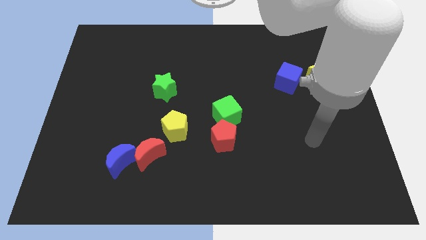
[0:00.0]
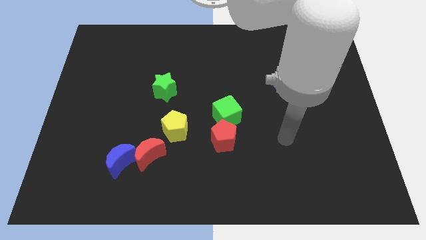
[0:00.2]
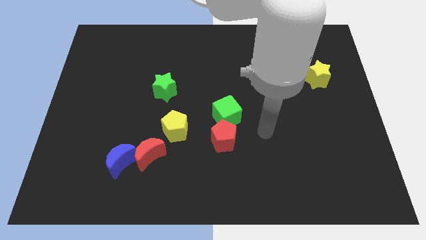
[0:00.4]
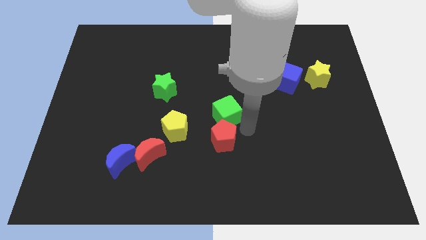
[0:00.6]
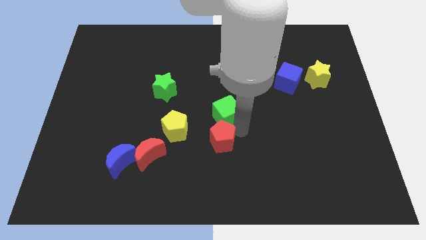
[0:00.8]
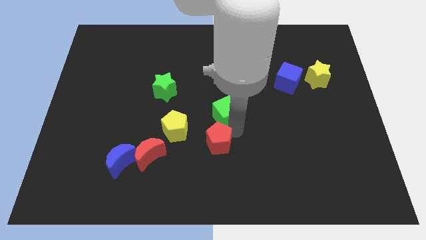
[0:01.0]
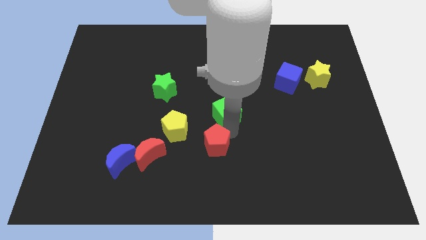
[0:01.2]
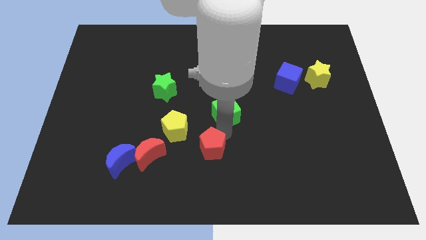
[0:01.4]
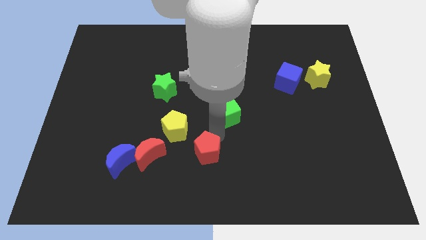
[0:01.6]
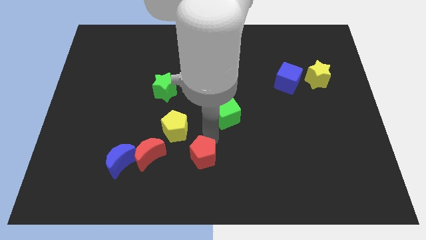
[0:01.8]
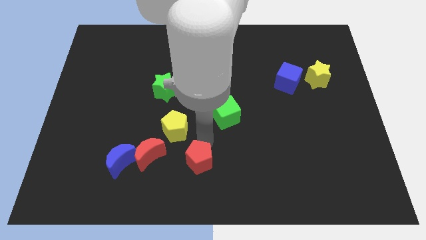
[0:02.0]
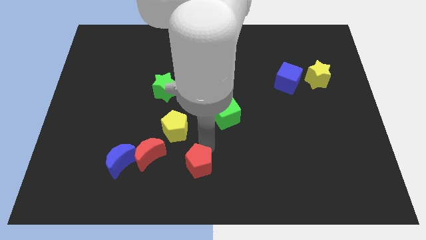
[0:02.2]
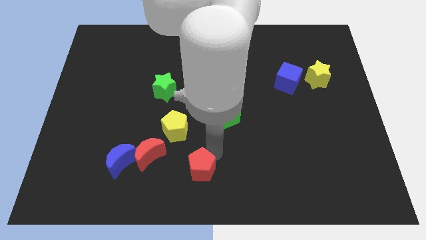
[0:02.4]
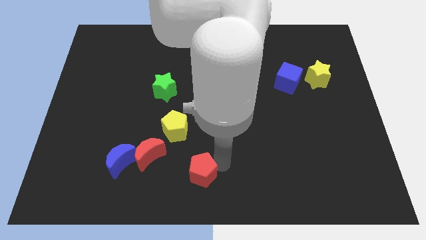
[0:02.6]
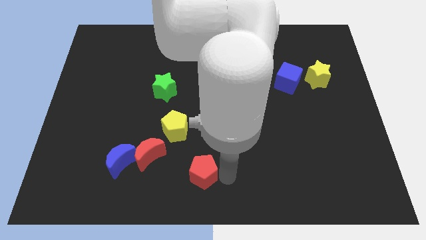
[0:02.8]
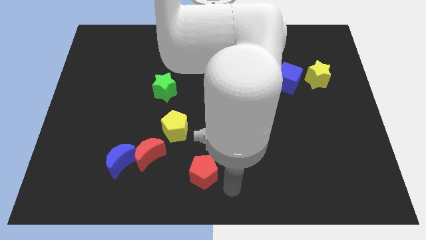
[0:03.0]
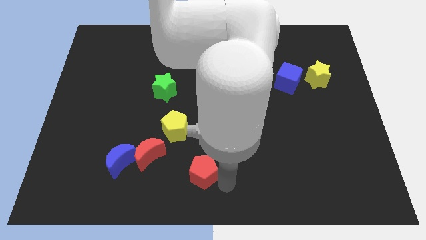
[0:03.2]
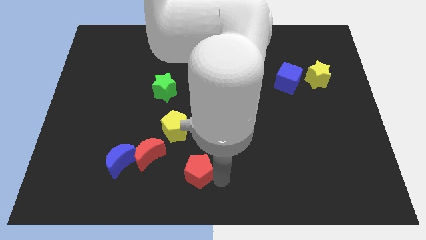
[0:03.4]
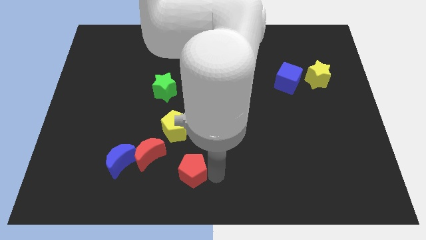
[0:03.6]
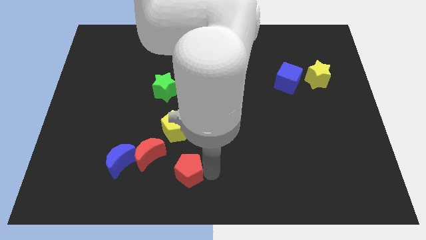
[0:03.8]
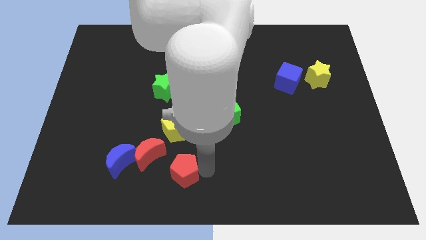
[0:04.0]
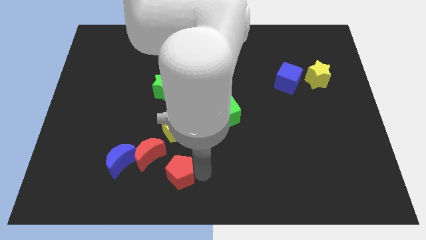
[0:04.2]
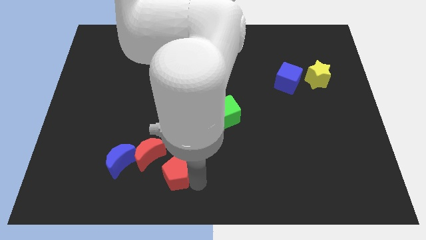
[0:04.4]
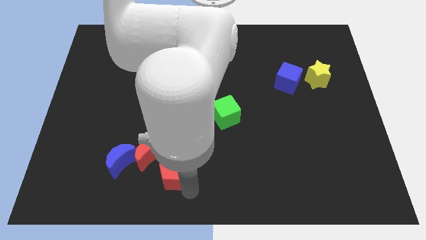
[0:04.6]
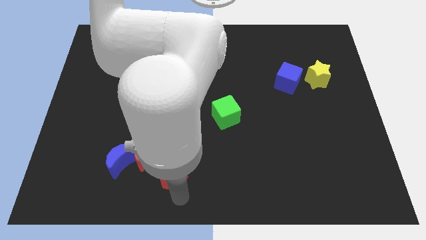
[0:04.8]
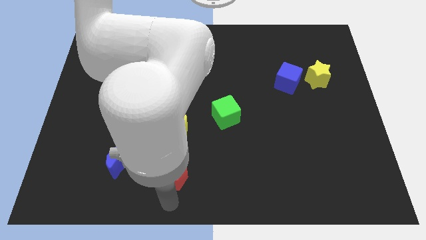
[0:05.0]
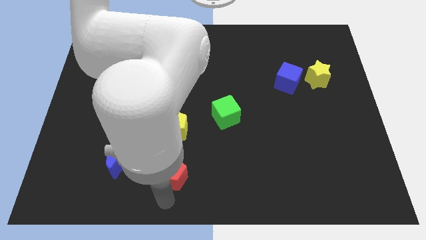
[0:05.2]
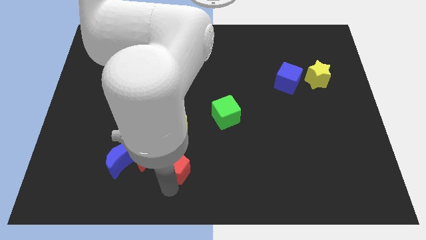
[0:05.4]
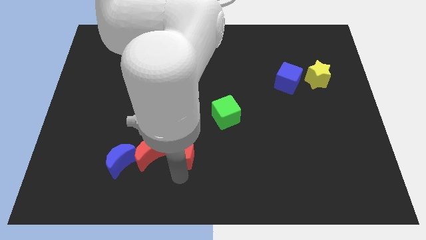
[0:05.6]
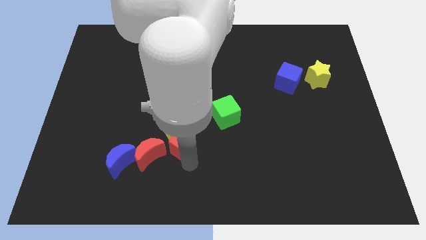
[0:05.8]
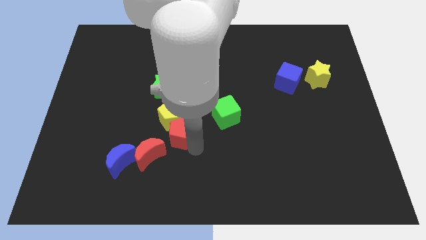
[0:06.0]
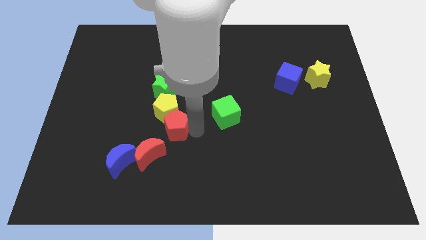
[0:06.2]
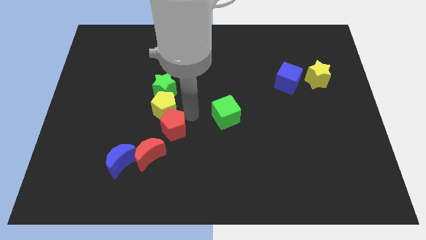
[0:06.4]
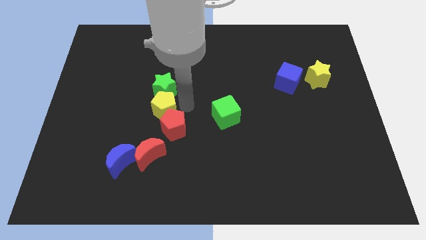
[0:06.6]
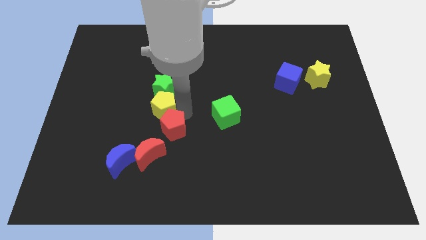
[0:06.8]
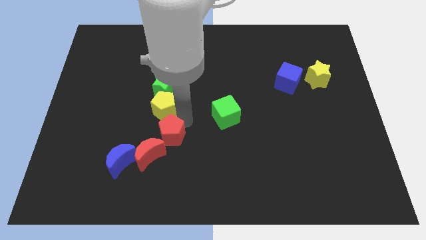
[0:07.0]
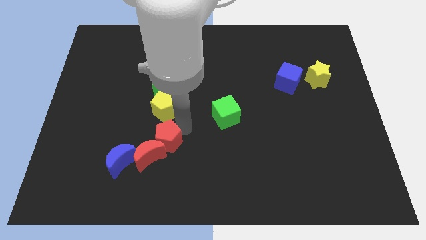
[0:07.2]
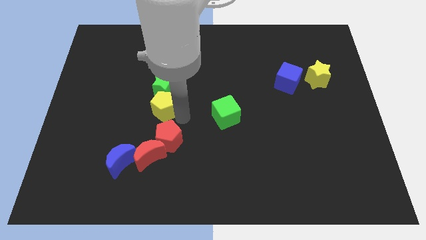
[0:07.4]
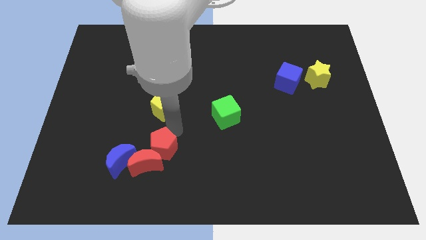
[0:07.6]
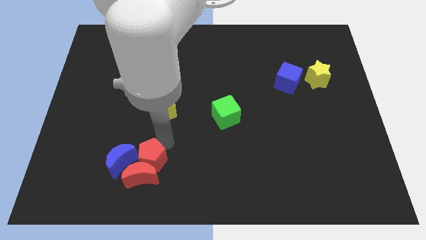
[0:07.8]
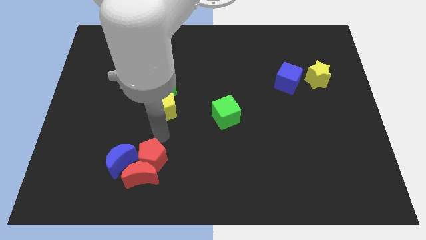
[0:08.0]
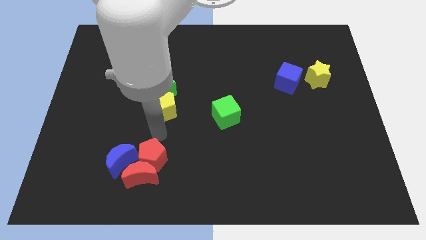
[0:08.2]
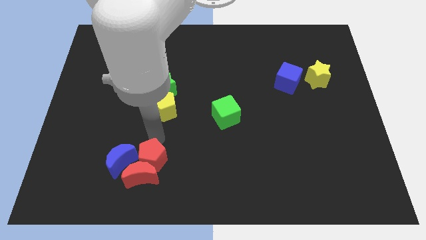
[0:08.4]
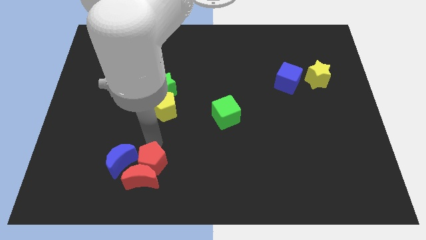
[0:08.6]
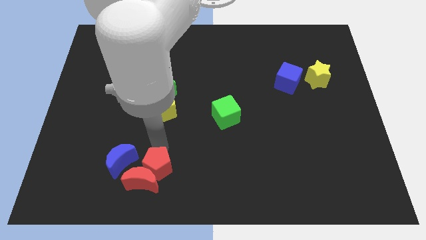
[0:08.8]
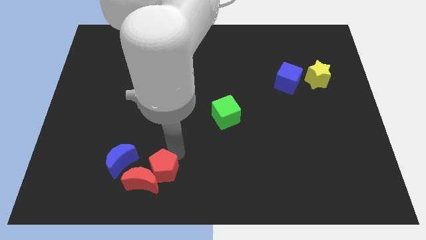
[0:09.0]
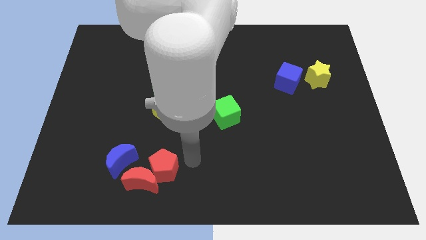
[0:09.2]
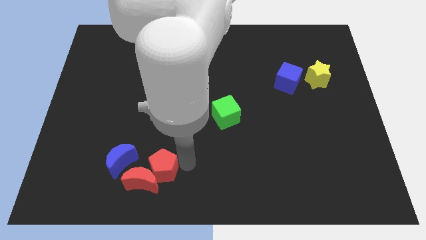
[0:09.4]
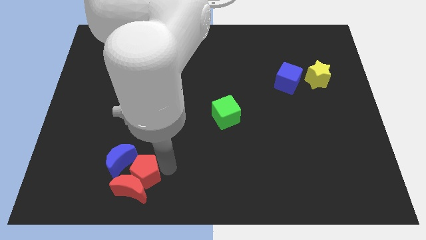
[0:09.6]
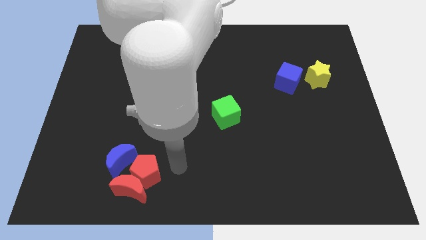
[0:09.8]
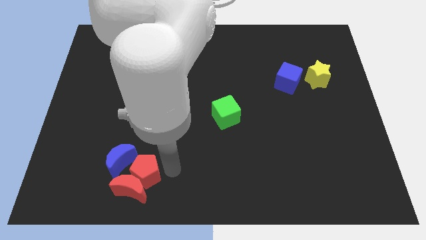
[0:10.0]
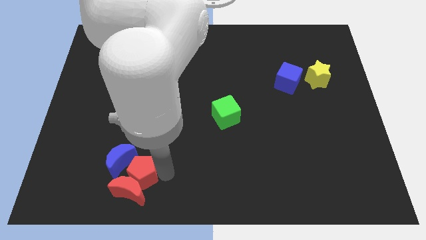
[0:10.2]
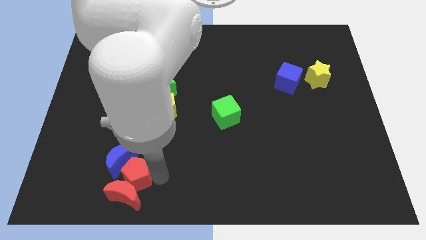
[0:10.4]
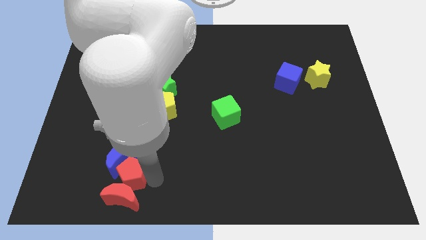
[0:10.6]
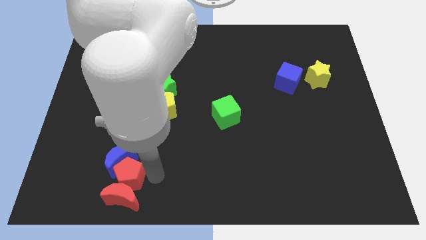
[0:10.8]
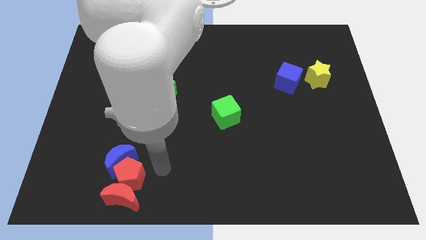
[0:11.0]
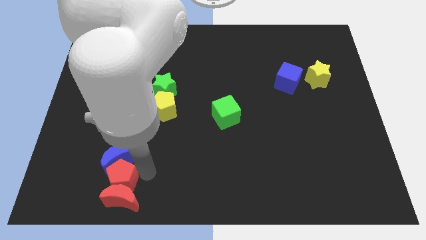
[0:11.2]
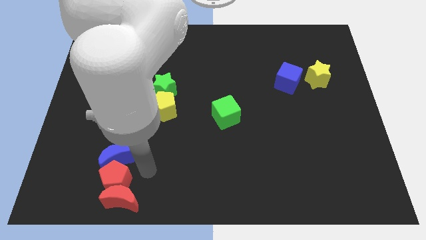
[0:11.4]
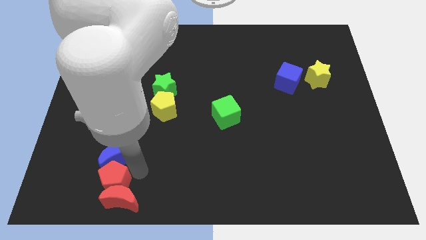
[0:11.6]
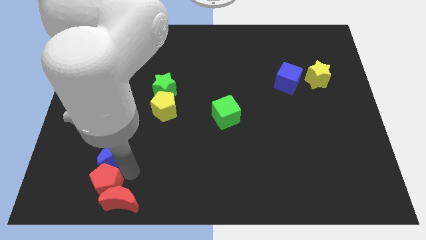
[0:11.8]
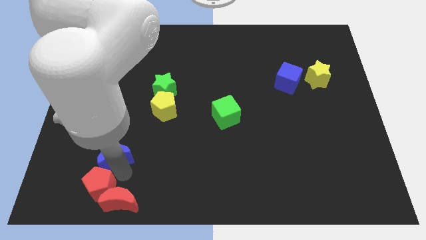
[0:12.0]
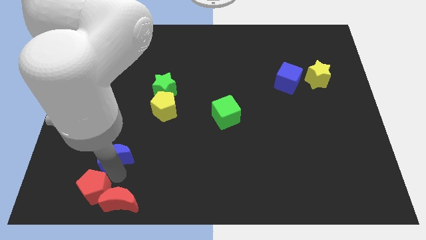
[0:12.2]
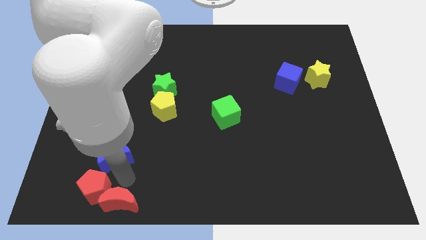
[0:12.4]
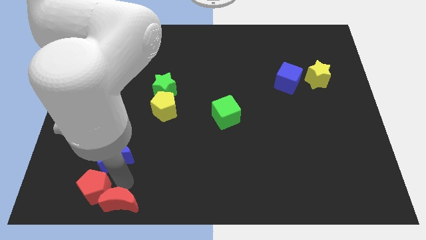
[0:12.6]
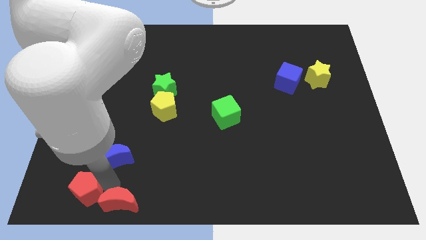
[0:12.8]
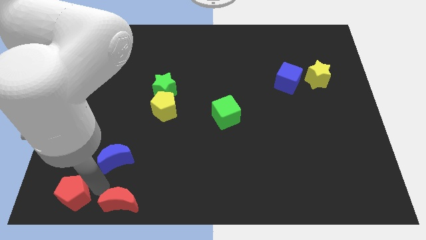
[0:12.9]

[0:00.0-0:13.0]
push the red pentagon to the bottom left

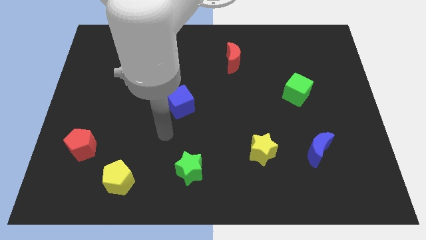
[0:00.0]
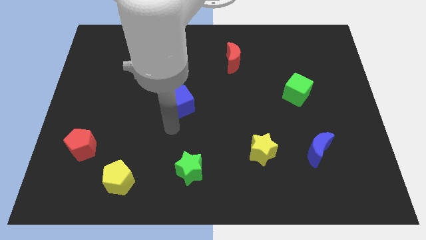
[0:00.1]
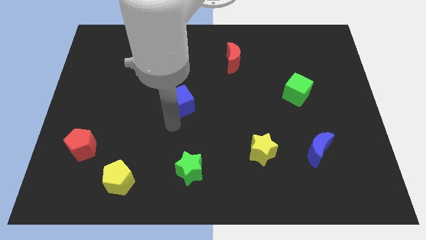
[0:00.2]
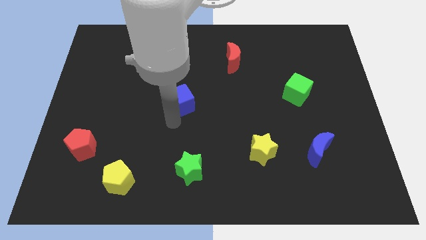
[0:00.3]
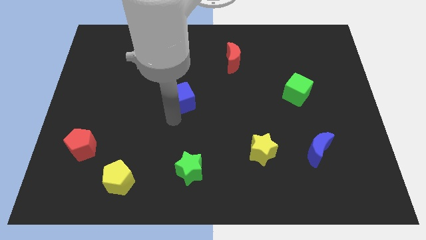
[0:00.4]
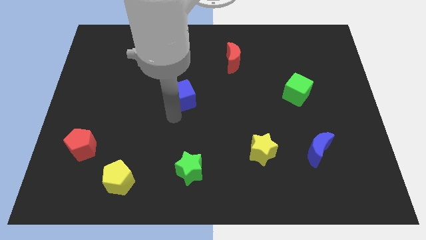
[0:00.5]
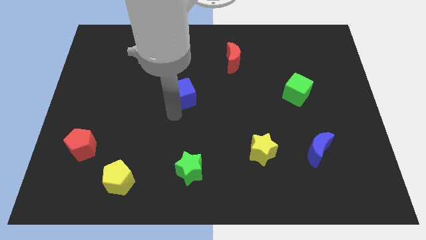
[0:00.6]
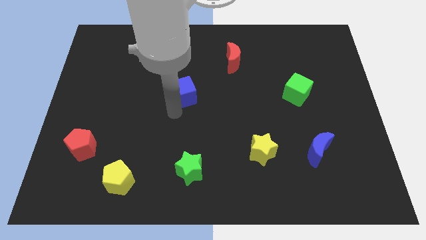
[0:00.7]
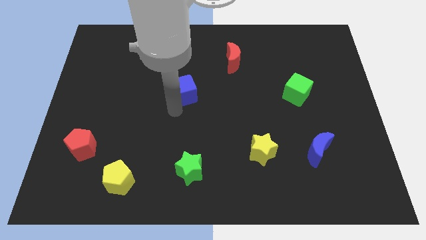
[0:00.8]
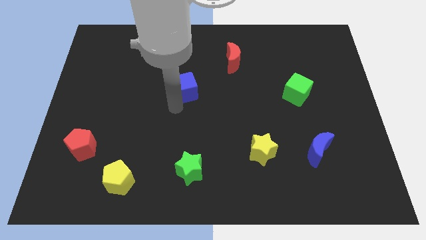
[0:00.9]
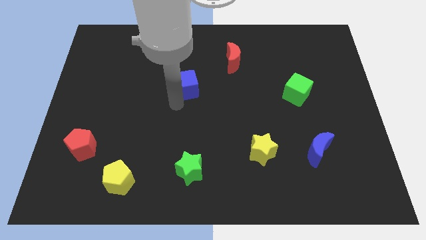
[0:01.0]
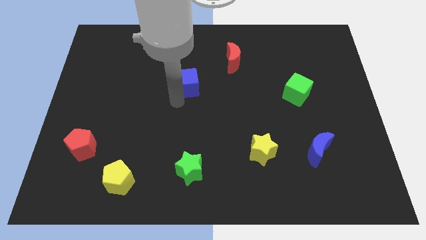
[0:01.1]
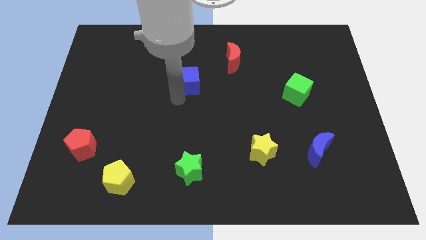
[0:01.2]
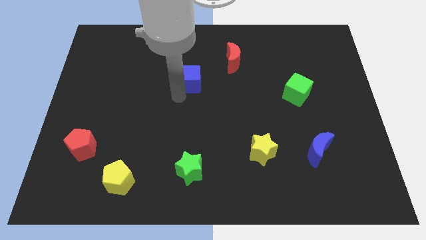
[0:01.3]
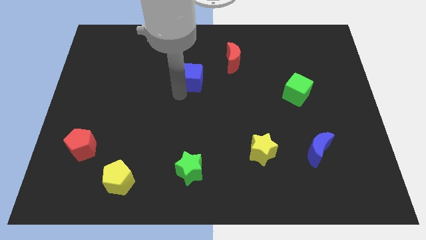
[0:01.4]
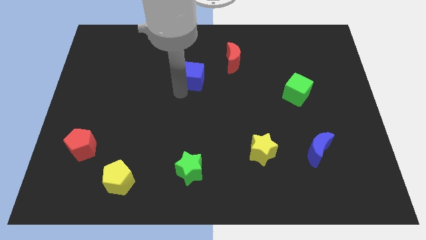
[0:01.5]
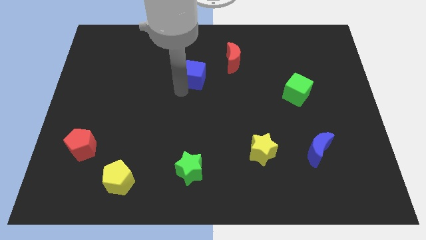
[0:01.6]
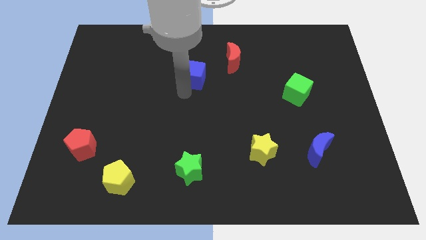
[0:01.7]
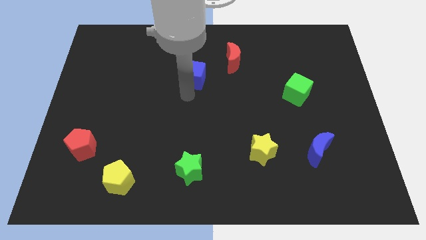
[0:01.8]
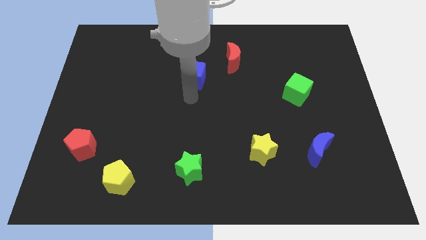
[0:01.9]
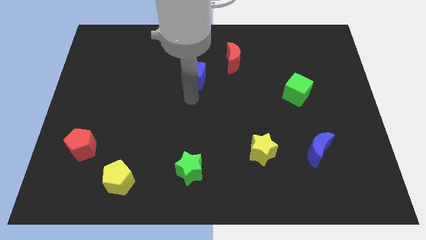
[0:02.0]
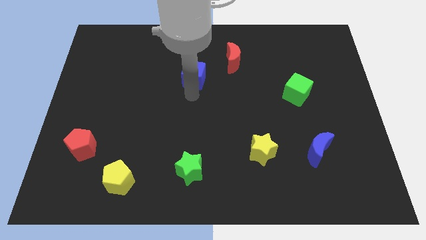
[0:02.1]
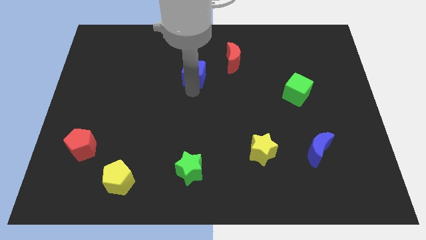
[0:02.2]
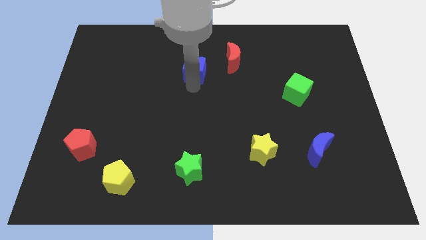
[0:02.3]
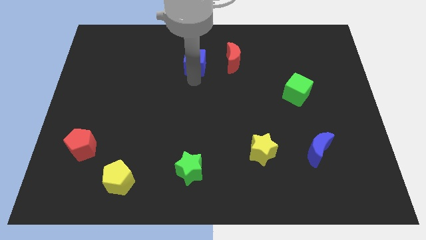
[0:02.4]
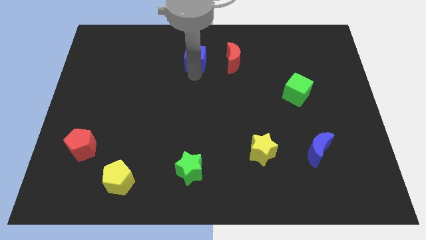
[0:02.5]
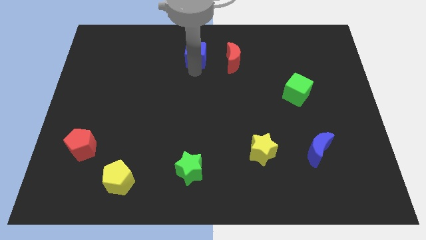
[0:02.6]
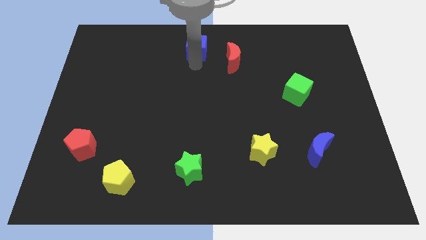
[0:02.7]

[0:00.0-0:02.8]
slide the blue cube to the top
